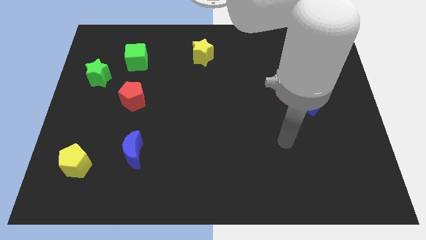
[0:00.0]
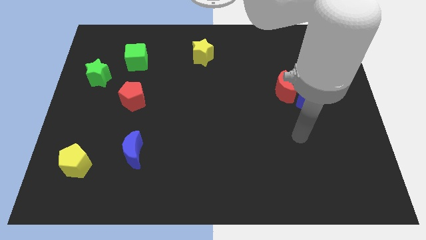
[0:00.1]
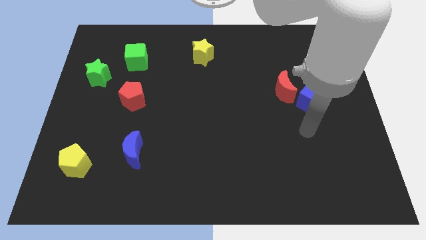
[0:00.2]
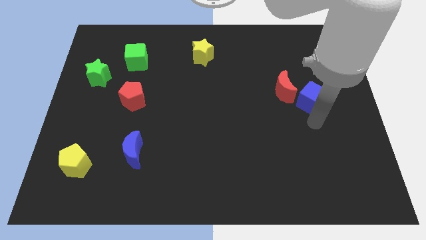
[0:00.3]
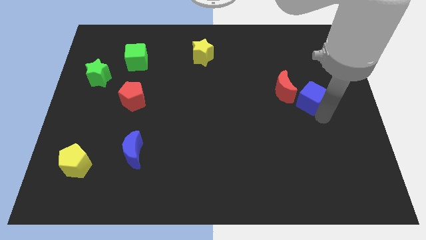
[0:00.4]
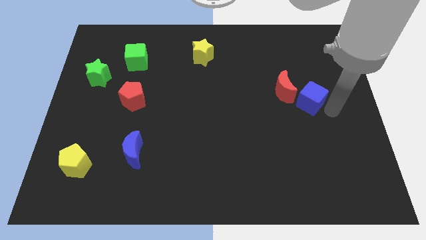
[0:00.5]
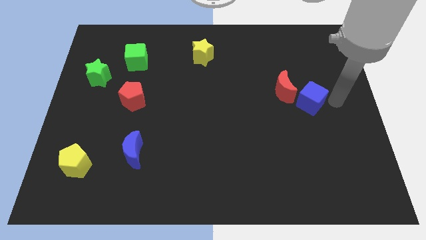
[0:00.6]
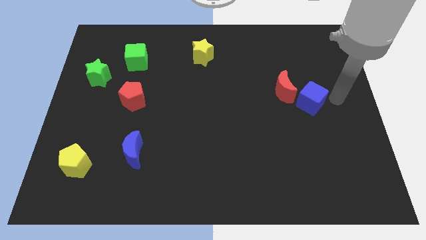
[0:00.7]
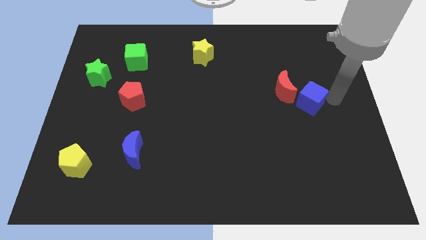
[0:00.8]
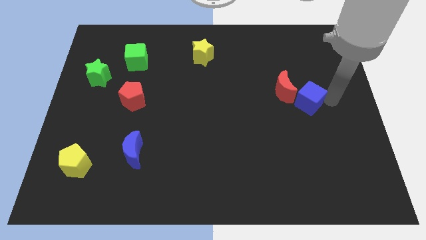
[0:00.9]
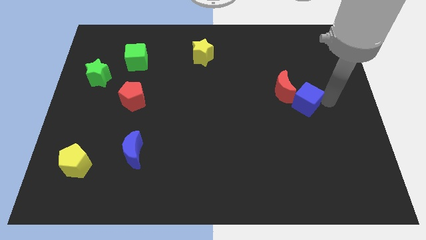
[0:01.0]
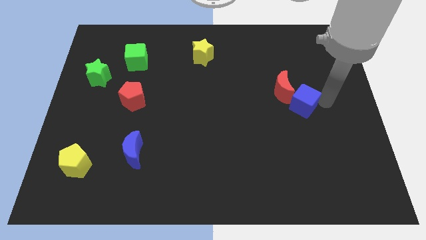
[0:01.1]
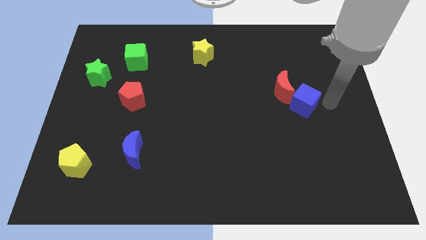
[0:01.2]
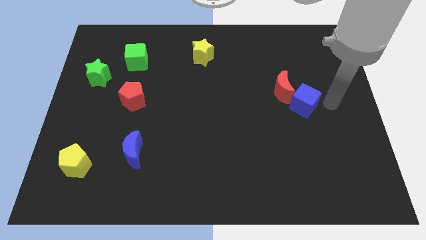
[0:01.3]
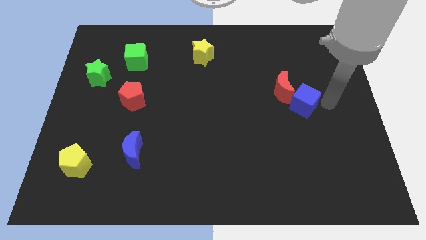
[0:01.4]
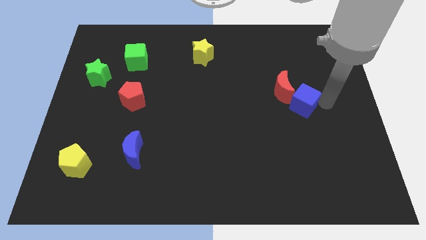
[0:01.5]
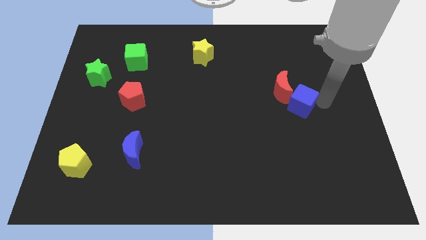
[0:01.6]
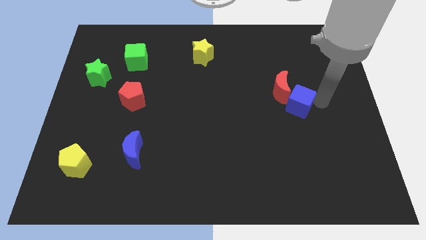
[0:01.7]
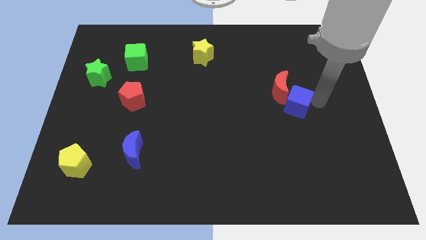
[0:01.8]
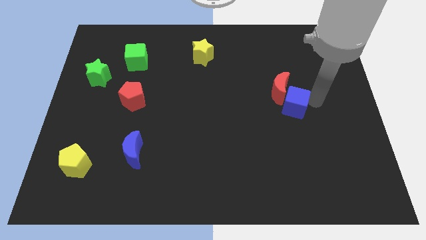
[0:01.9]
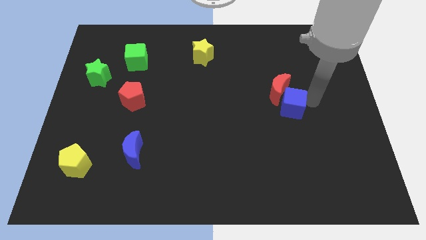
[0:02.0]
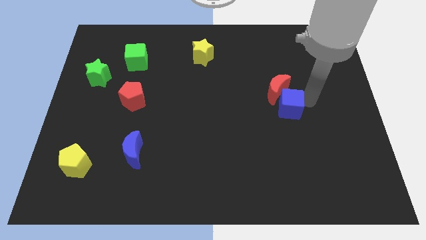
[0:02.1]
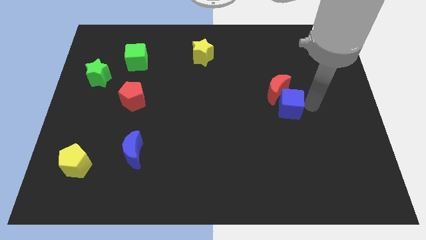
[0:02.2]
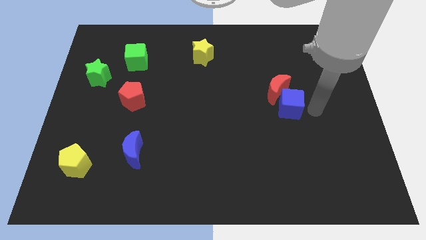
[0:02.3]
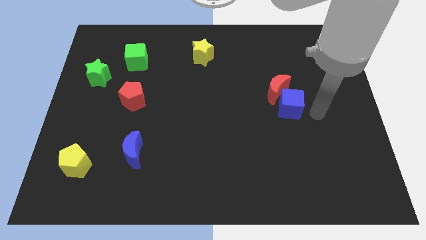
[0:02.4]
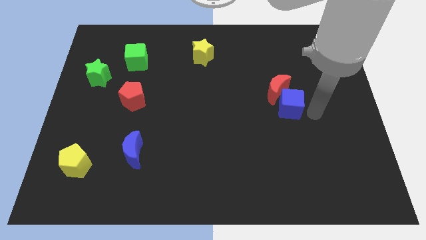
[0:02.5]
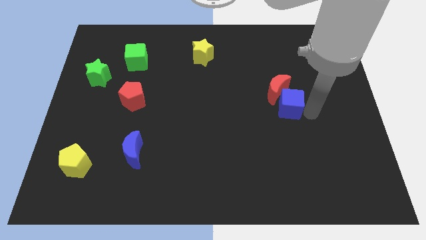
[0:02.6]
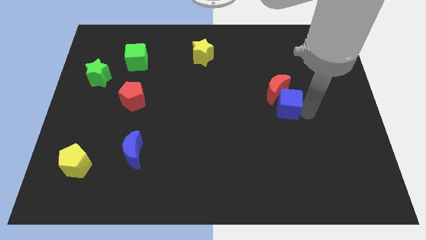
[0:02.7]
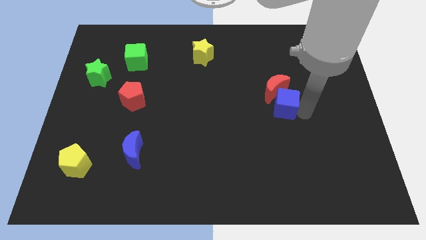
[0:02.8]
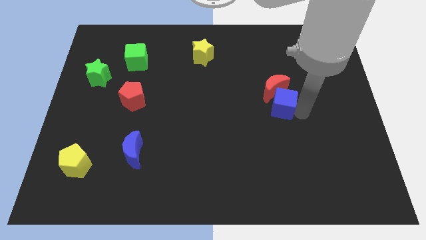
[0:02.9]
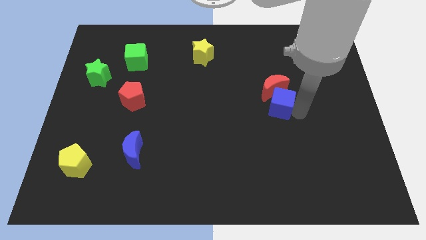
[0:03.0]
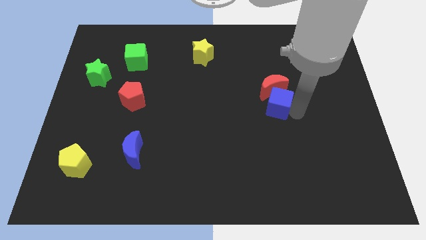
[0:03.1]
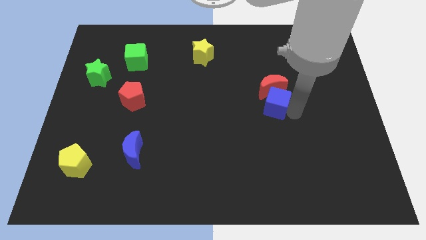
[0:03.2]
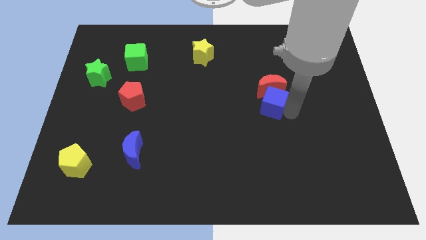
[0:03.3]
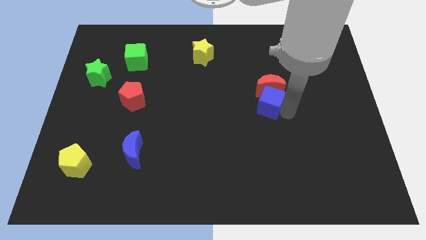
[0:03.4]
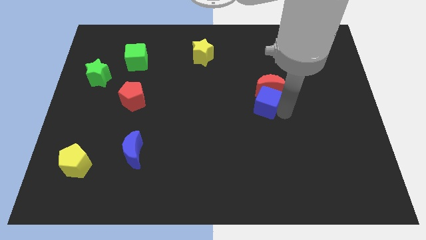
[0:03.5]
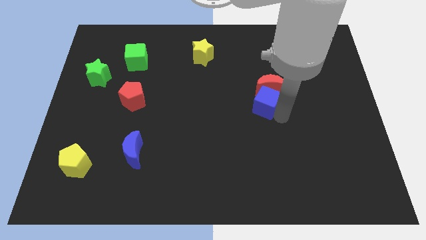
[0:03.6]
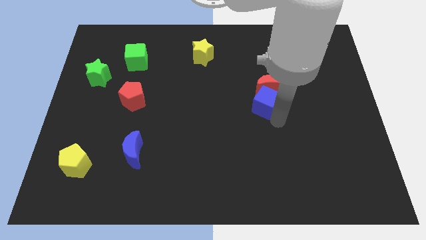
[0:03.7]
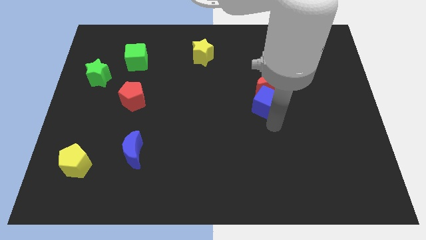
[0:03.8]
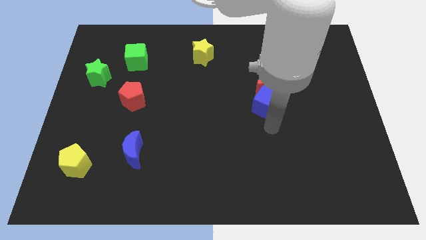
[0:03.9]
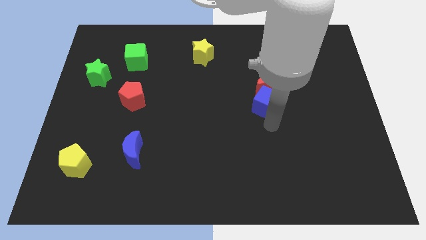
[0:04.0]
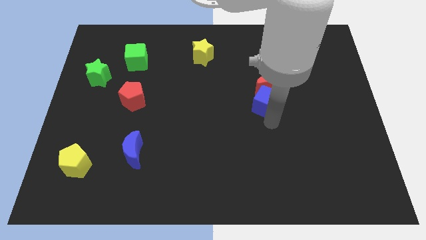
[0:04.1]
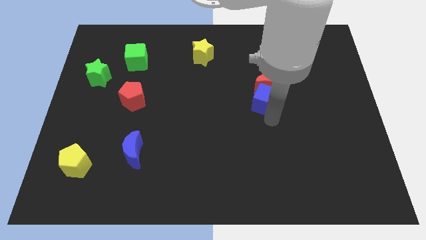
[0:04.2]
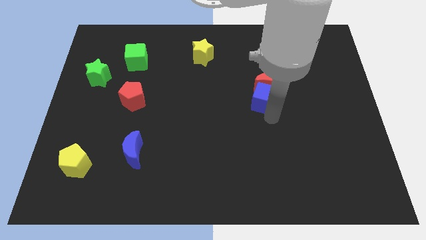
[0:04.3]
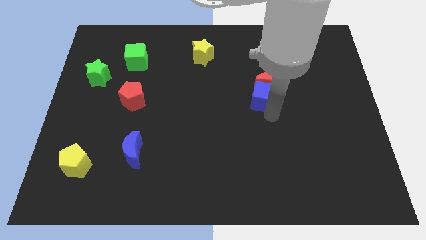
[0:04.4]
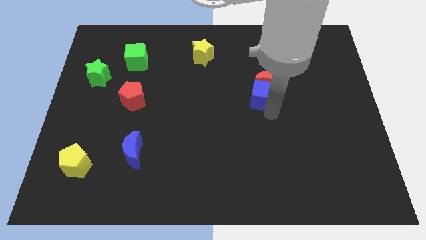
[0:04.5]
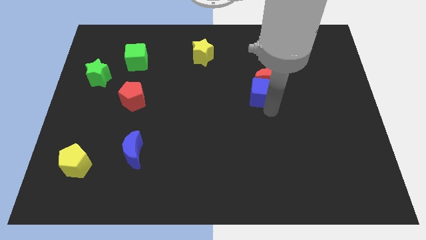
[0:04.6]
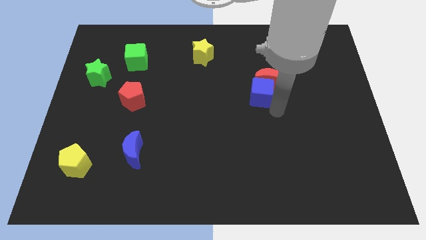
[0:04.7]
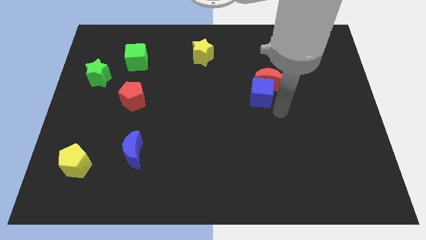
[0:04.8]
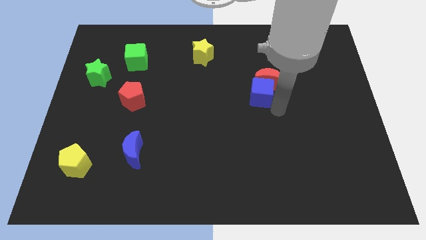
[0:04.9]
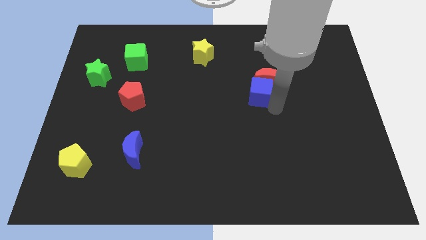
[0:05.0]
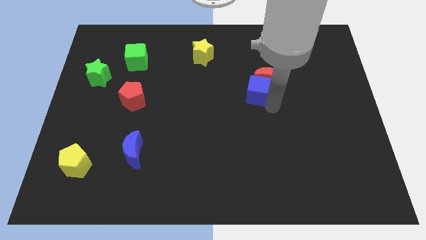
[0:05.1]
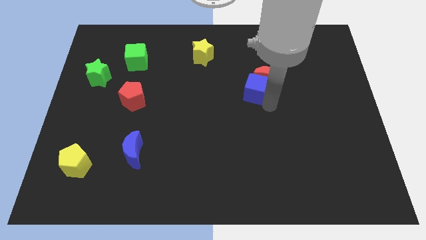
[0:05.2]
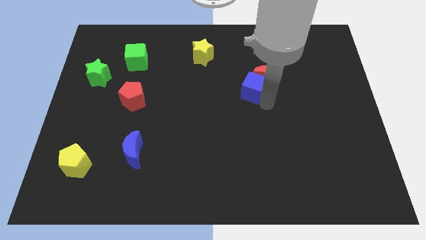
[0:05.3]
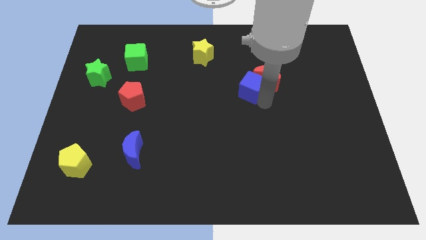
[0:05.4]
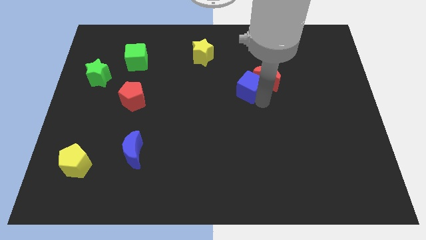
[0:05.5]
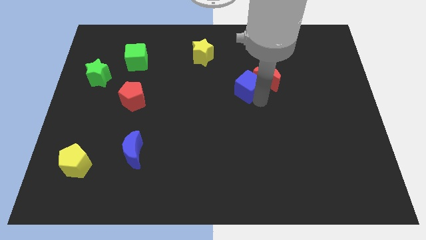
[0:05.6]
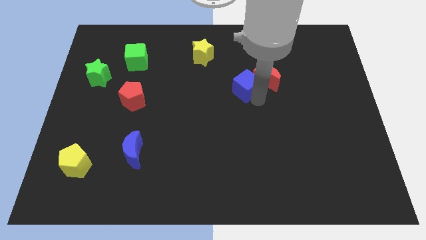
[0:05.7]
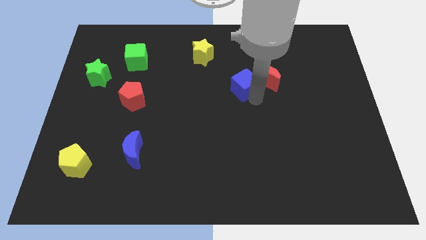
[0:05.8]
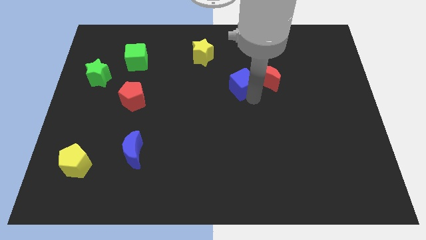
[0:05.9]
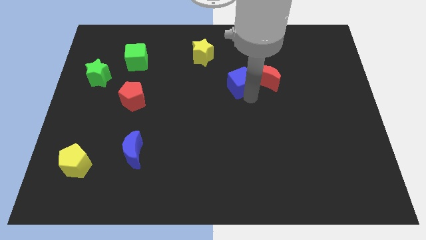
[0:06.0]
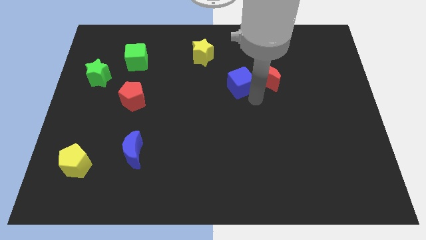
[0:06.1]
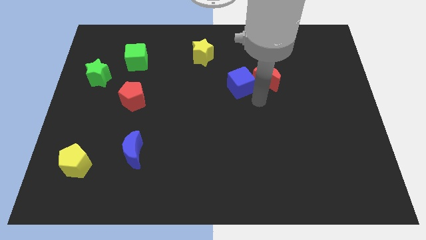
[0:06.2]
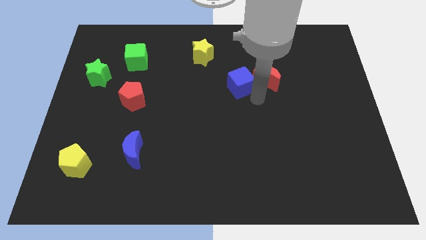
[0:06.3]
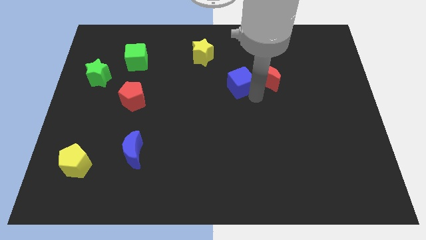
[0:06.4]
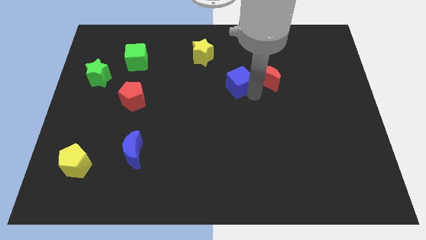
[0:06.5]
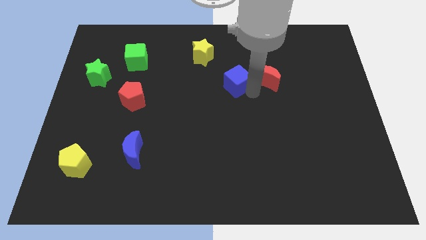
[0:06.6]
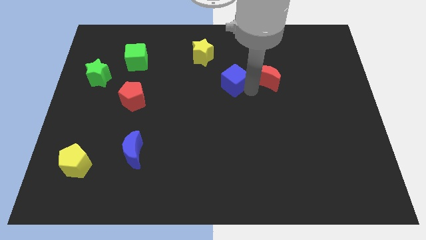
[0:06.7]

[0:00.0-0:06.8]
move the blue cube to the bottom right of the yellow star
